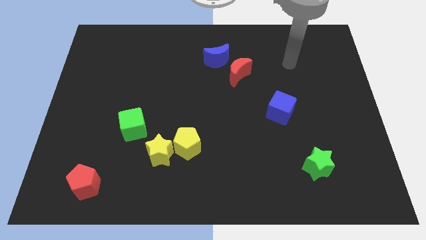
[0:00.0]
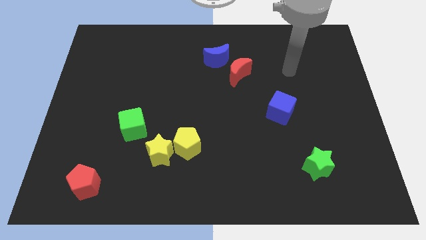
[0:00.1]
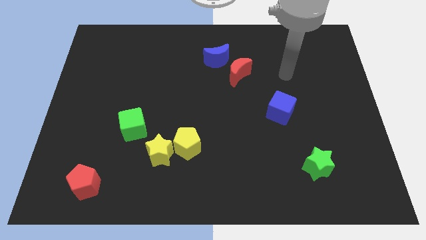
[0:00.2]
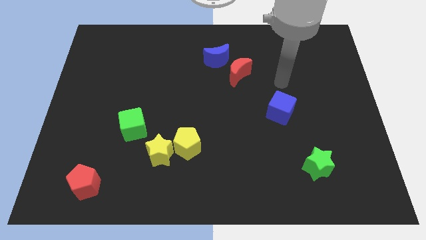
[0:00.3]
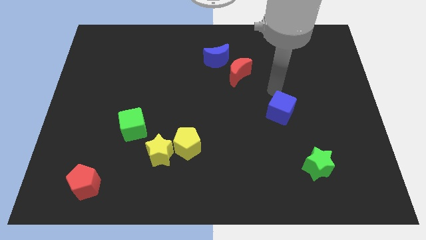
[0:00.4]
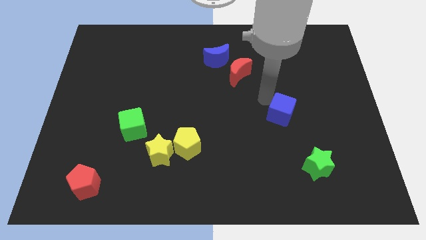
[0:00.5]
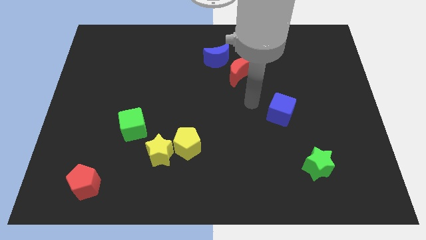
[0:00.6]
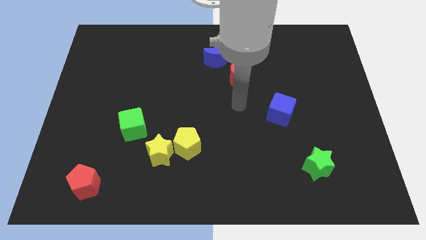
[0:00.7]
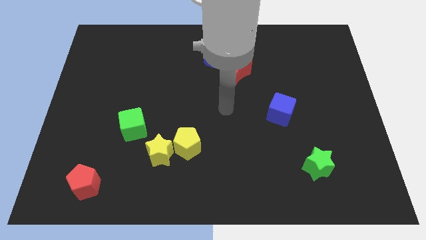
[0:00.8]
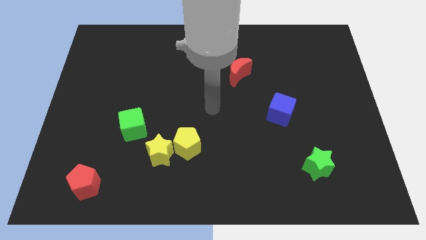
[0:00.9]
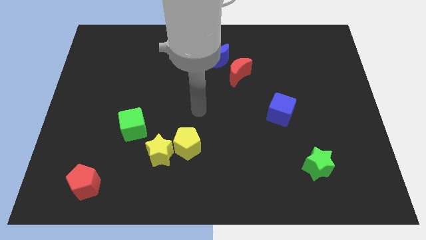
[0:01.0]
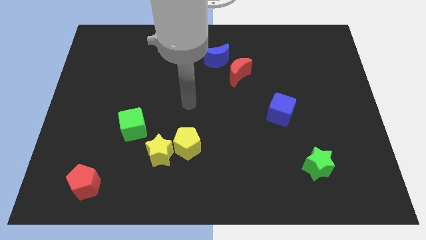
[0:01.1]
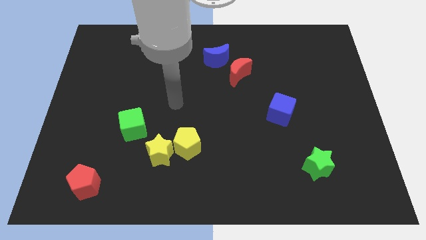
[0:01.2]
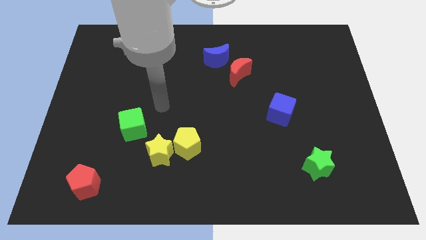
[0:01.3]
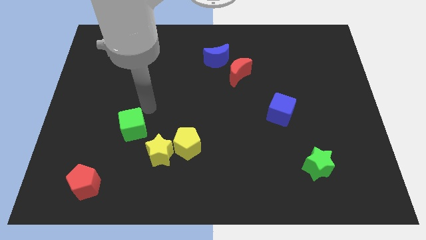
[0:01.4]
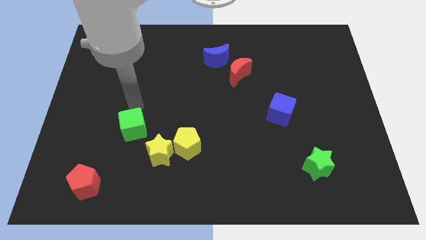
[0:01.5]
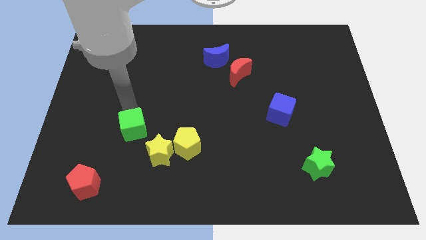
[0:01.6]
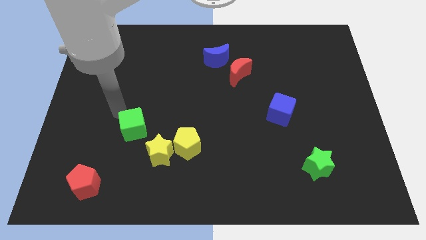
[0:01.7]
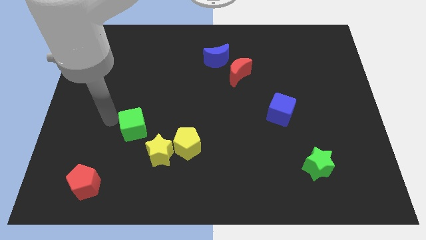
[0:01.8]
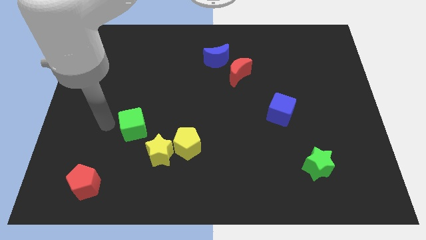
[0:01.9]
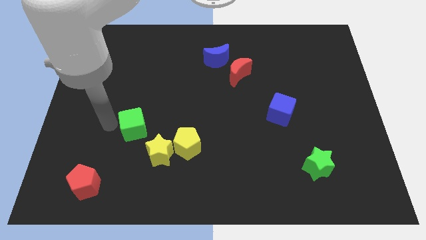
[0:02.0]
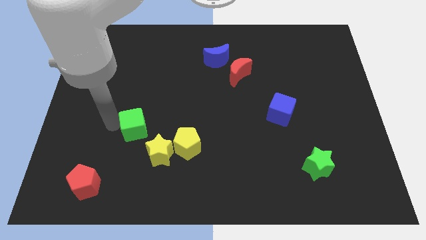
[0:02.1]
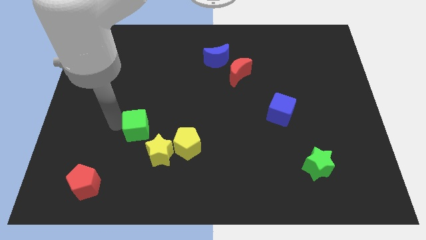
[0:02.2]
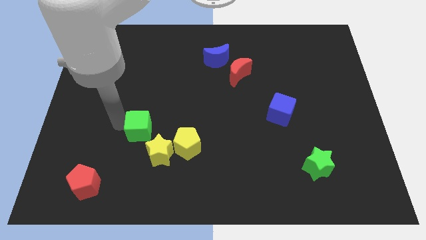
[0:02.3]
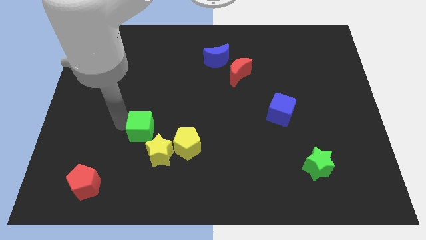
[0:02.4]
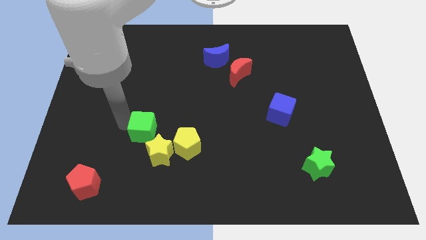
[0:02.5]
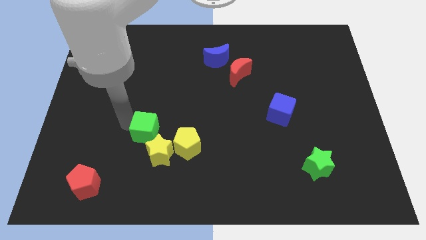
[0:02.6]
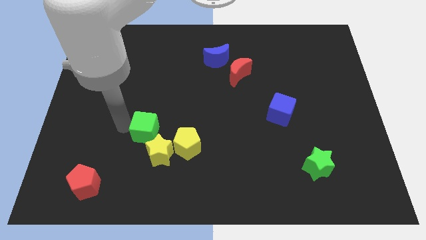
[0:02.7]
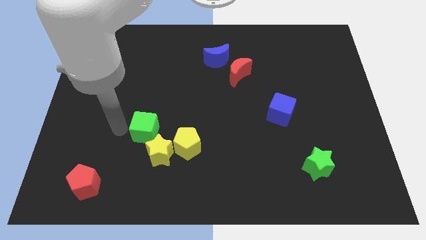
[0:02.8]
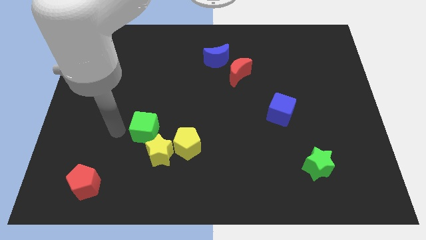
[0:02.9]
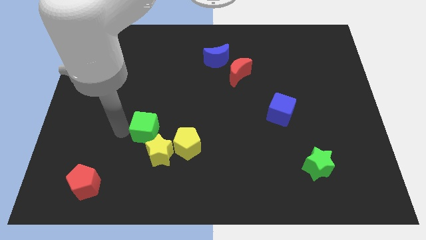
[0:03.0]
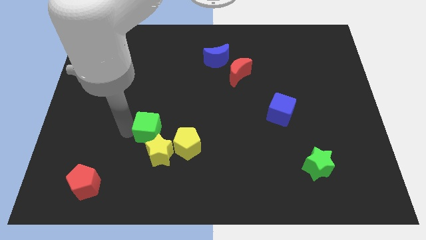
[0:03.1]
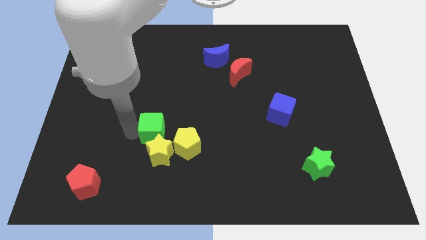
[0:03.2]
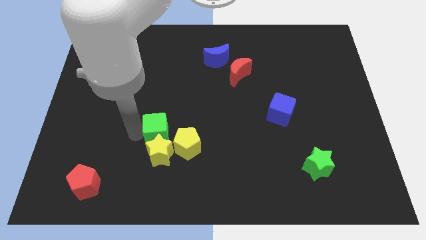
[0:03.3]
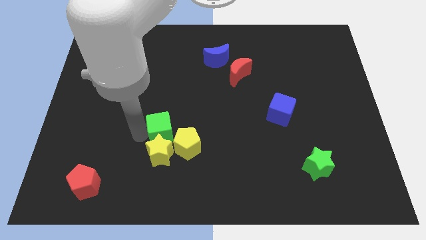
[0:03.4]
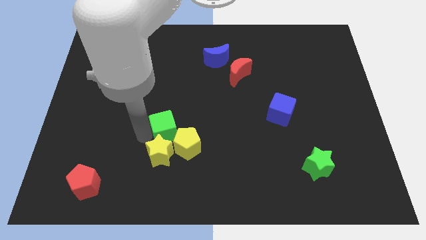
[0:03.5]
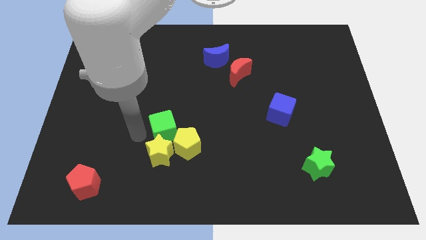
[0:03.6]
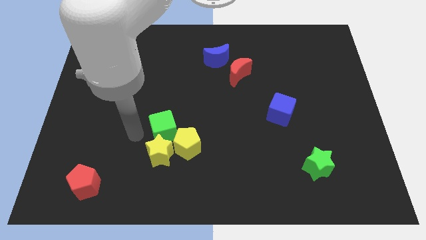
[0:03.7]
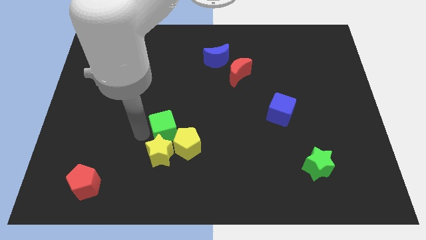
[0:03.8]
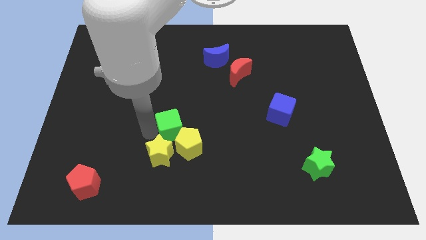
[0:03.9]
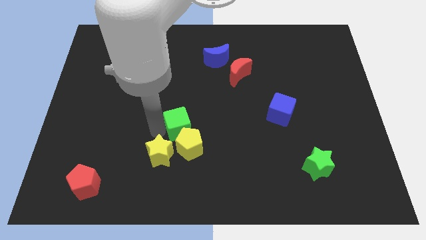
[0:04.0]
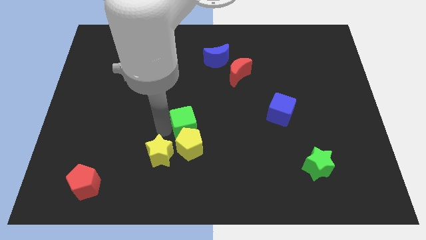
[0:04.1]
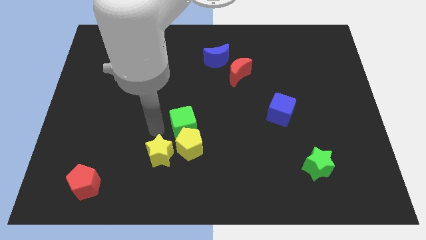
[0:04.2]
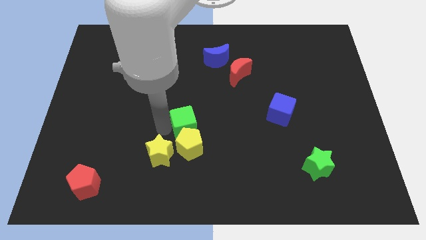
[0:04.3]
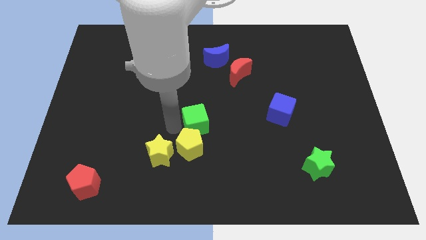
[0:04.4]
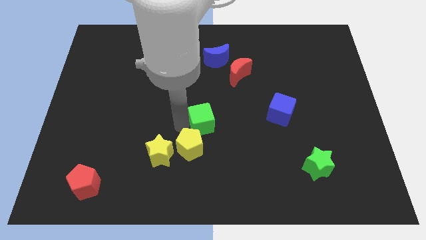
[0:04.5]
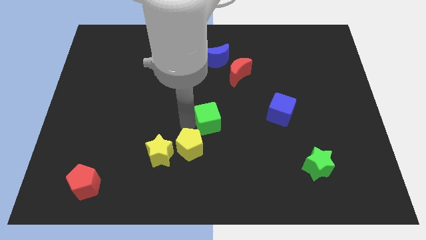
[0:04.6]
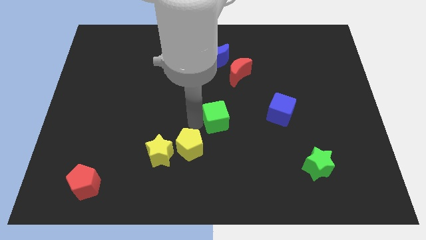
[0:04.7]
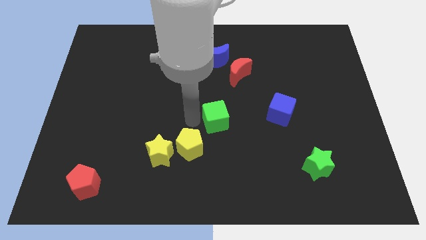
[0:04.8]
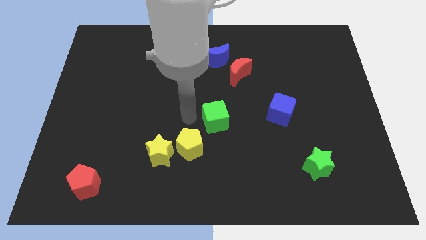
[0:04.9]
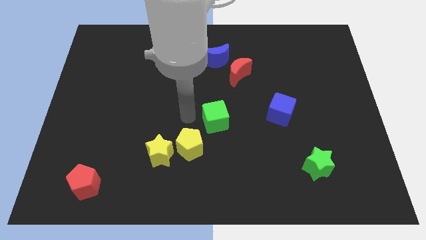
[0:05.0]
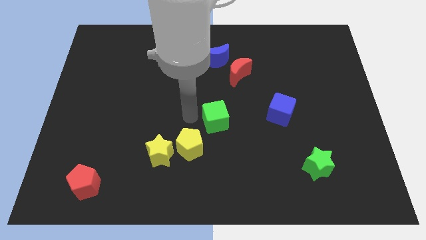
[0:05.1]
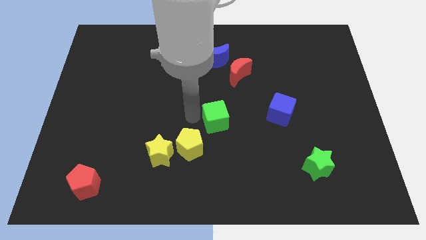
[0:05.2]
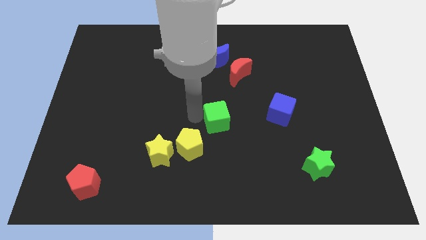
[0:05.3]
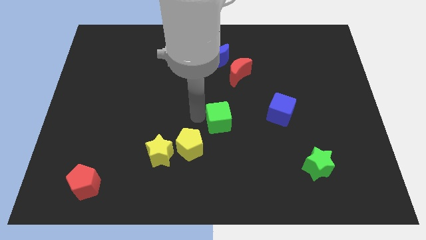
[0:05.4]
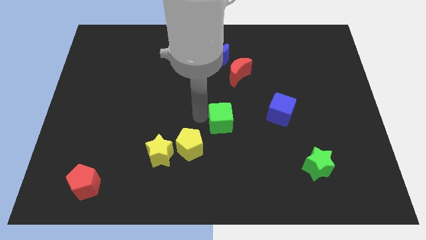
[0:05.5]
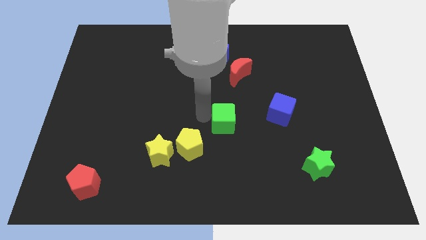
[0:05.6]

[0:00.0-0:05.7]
slide the green cube right

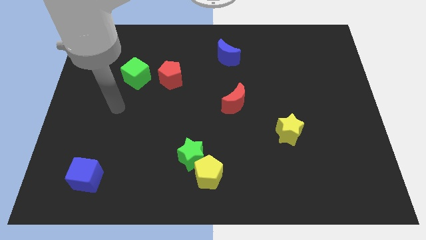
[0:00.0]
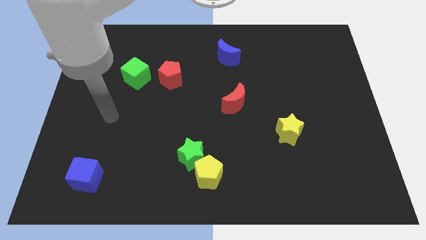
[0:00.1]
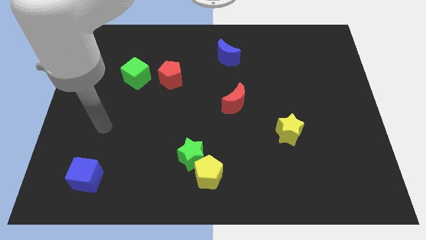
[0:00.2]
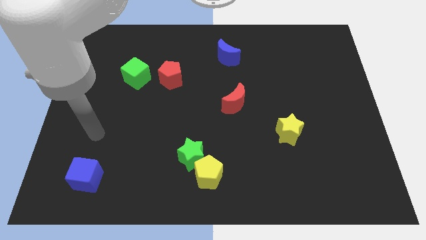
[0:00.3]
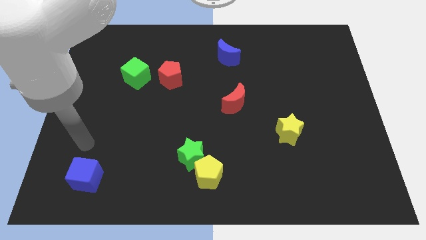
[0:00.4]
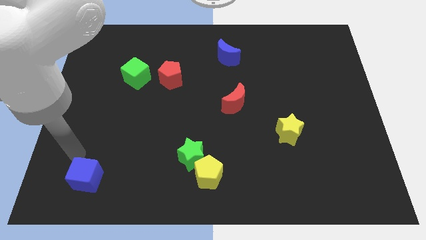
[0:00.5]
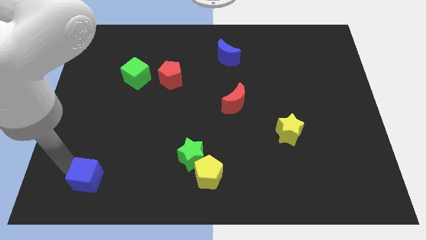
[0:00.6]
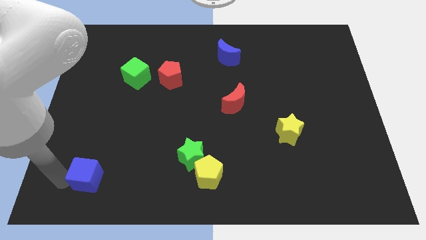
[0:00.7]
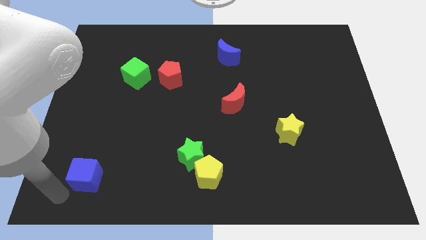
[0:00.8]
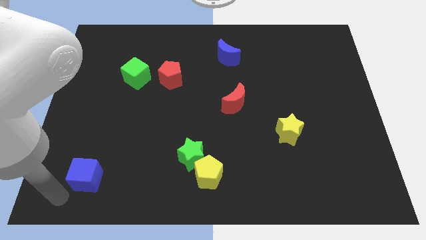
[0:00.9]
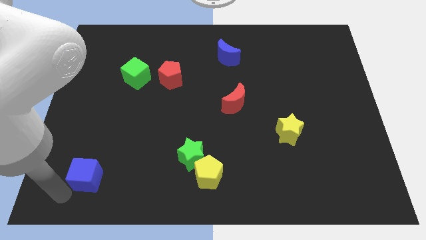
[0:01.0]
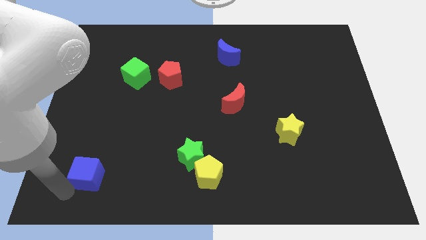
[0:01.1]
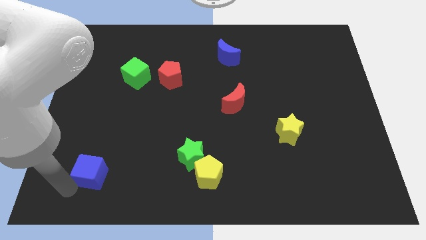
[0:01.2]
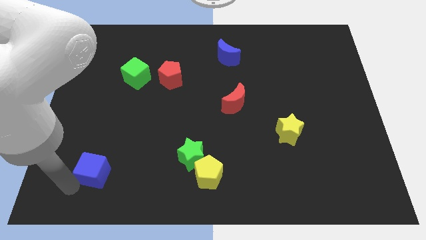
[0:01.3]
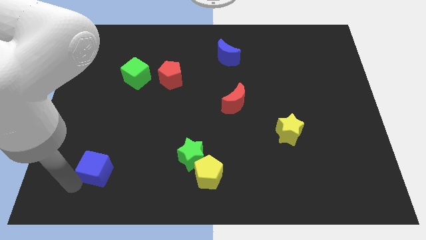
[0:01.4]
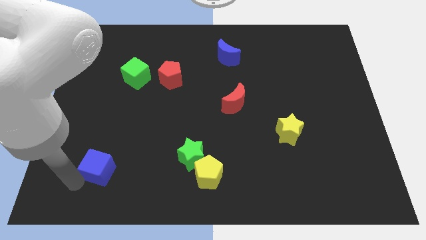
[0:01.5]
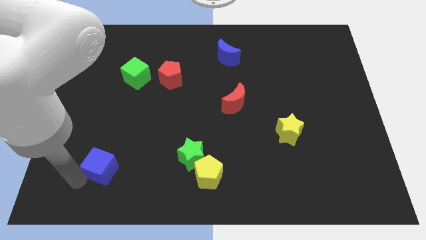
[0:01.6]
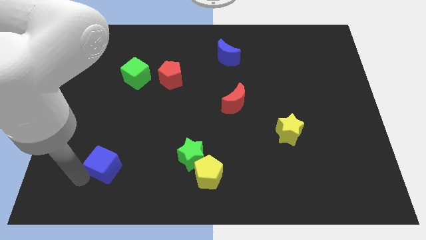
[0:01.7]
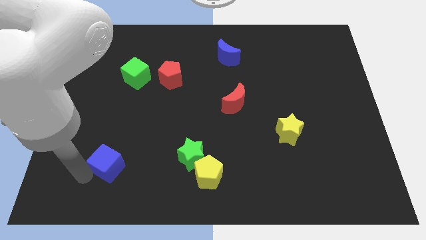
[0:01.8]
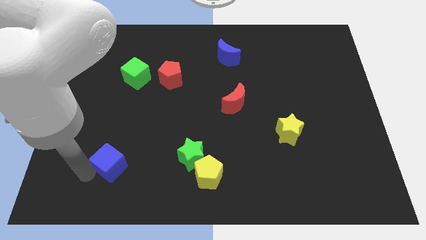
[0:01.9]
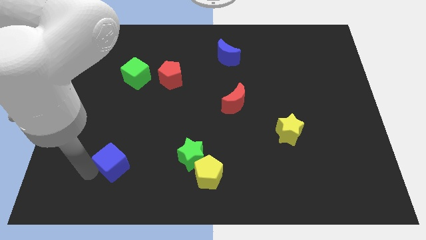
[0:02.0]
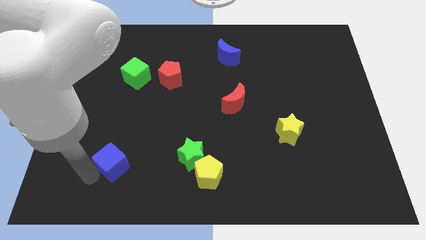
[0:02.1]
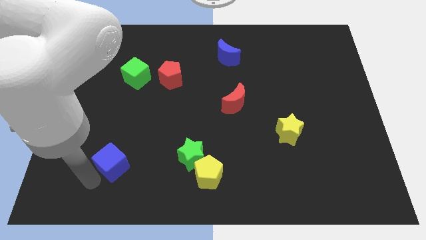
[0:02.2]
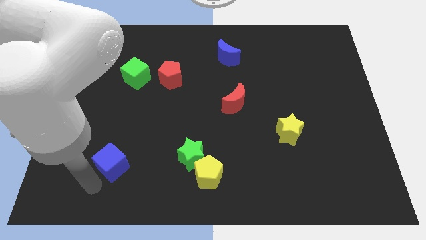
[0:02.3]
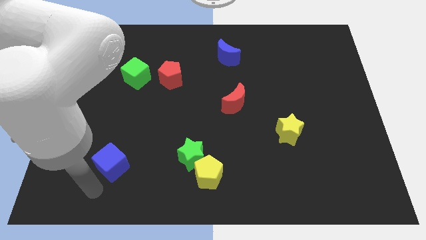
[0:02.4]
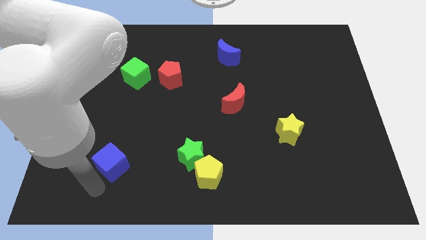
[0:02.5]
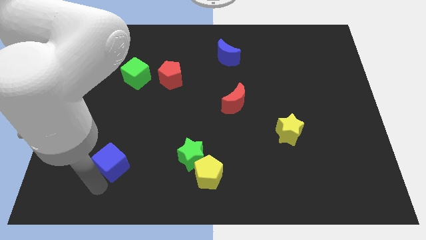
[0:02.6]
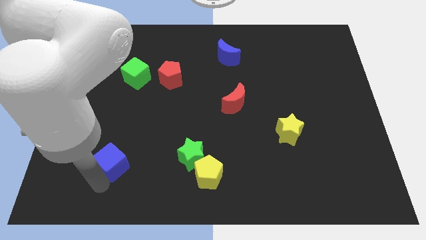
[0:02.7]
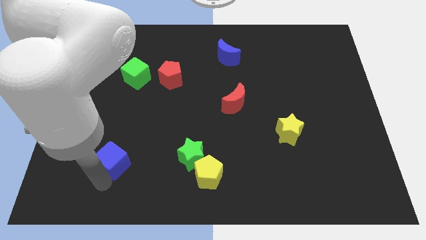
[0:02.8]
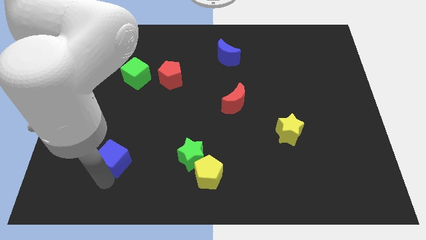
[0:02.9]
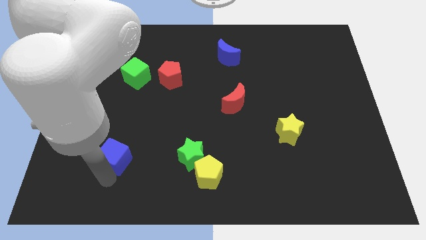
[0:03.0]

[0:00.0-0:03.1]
slightly slide the blue cube diagonally up and to the right
